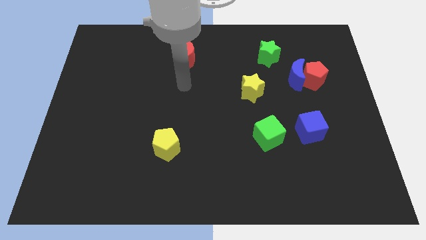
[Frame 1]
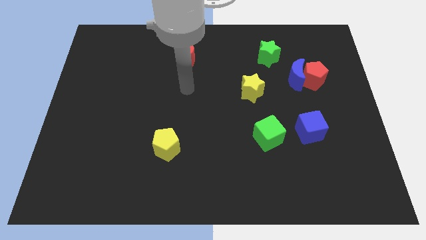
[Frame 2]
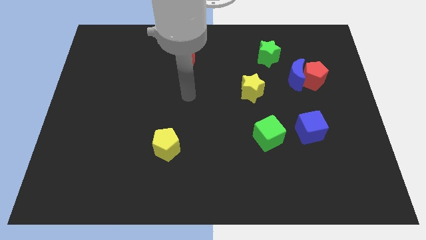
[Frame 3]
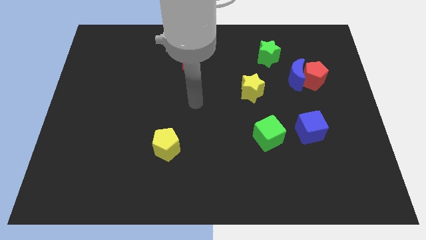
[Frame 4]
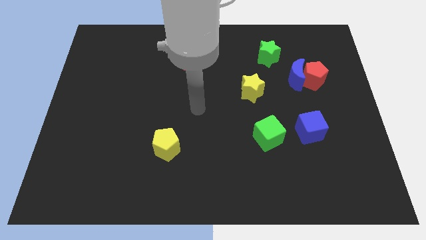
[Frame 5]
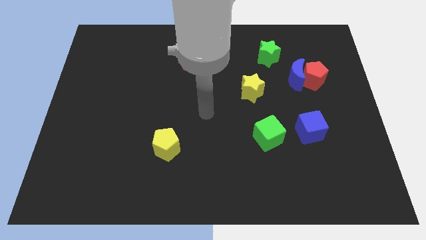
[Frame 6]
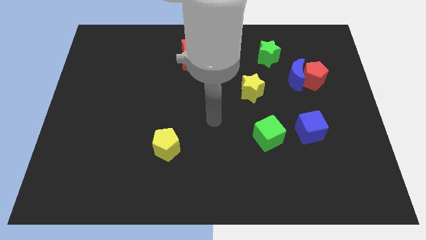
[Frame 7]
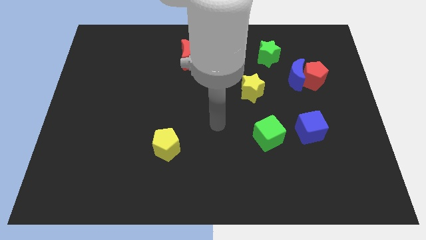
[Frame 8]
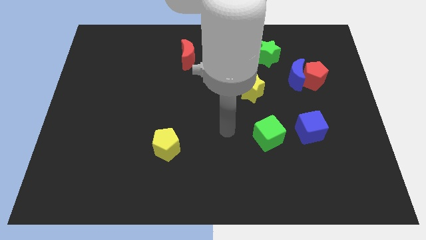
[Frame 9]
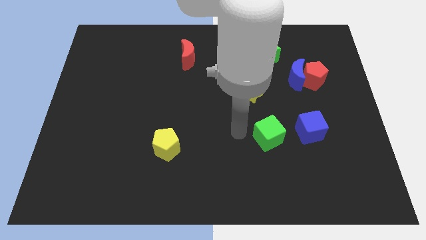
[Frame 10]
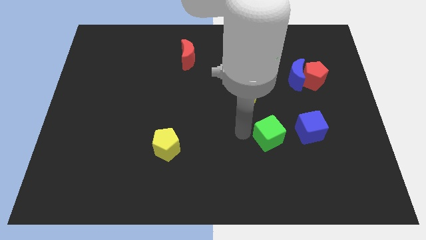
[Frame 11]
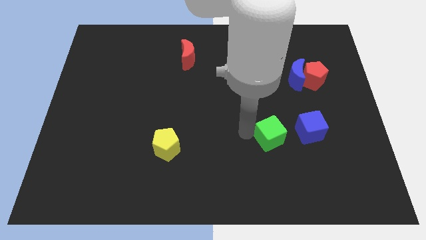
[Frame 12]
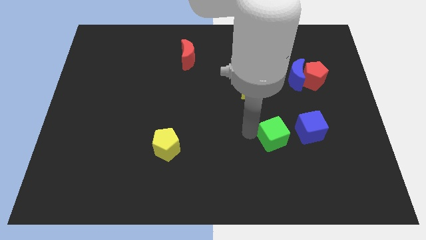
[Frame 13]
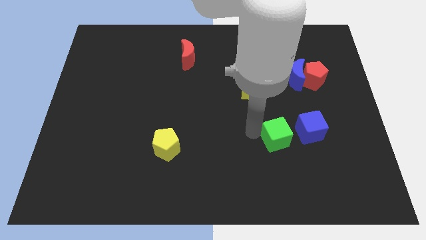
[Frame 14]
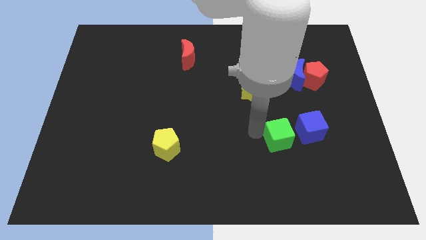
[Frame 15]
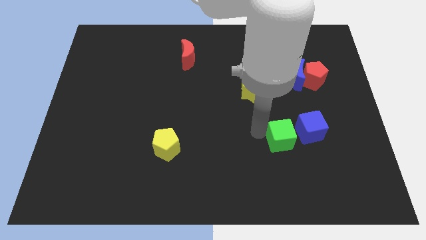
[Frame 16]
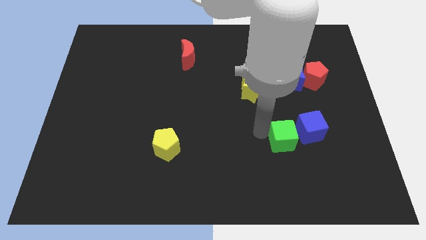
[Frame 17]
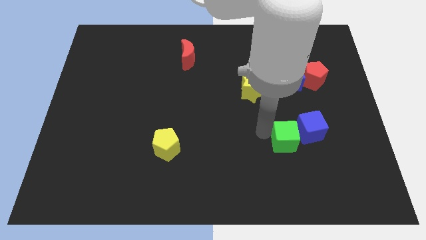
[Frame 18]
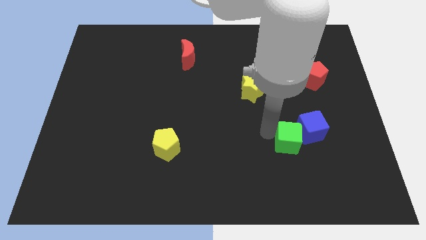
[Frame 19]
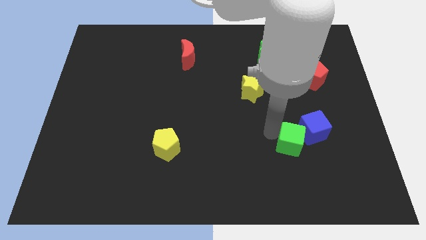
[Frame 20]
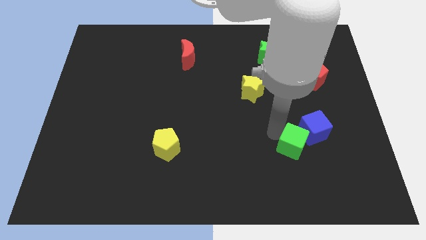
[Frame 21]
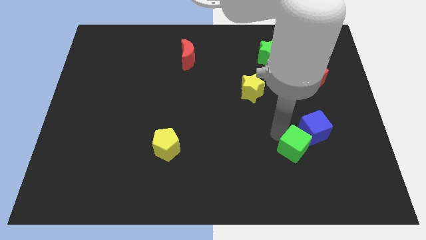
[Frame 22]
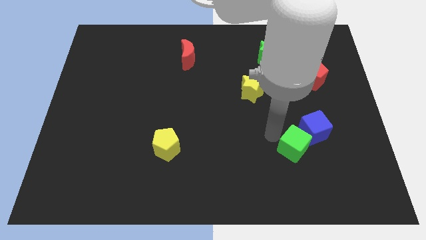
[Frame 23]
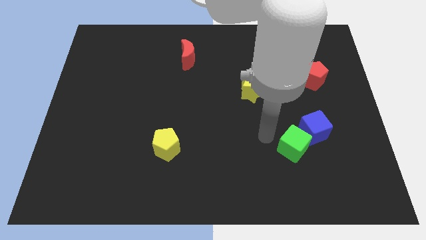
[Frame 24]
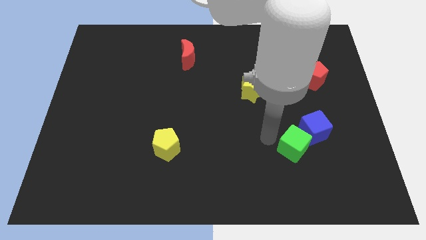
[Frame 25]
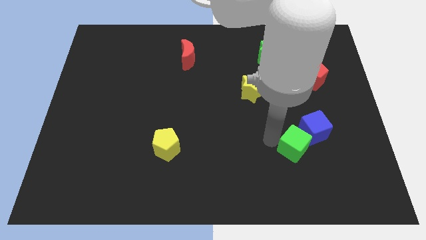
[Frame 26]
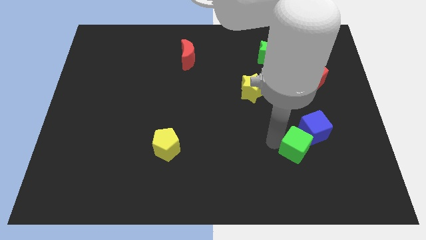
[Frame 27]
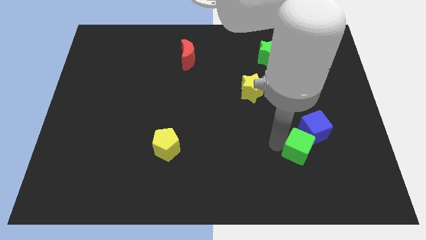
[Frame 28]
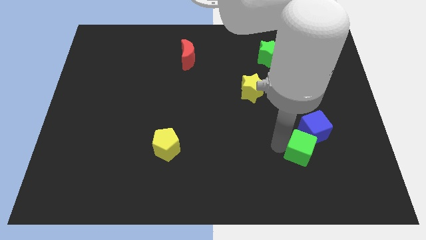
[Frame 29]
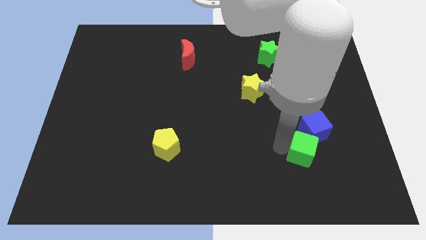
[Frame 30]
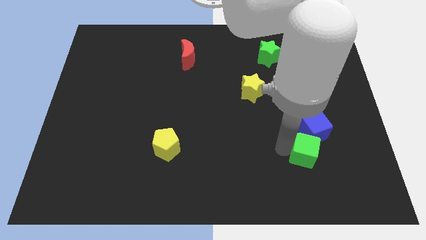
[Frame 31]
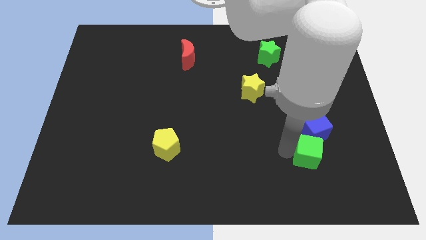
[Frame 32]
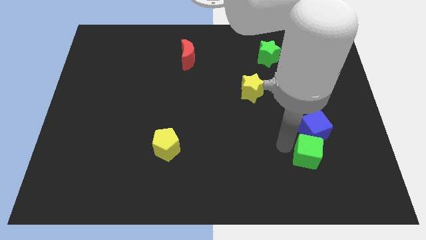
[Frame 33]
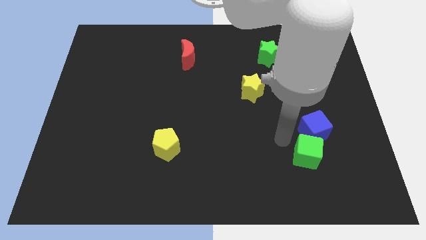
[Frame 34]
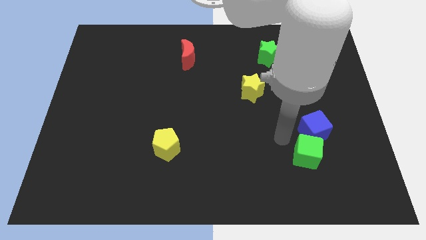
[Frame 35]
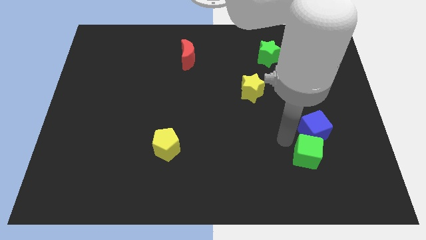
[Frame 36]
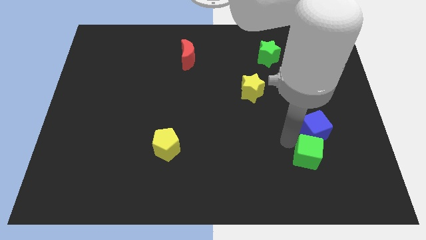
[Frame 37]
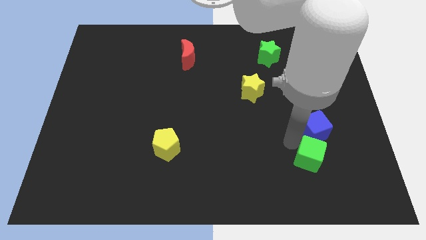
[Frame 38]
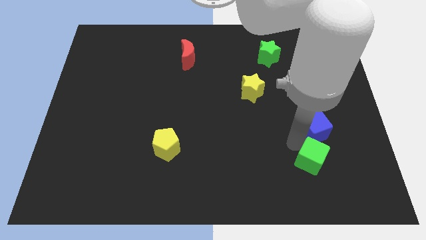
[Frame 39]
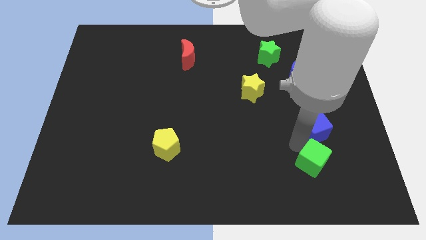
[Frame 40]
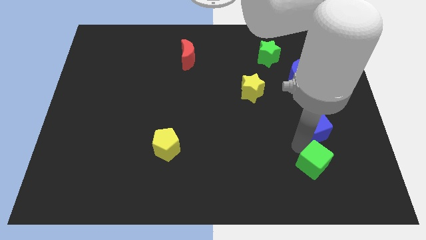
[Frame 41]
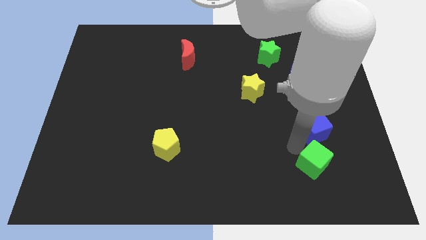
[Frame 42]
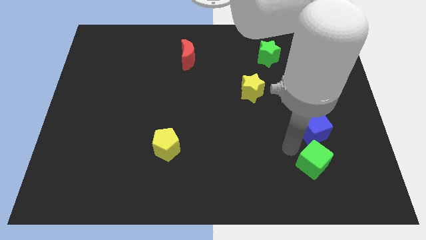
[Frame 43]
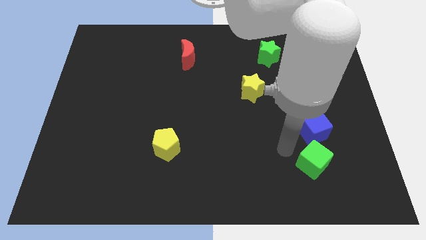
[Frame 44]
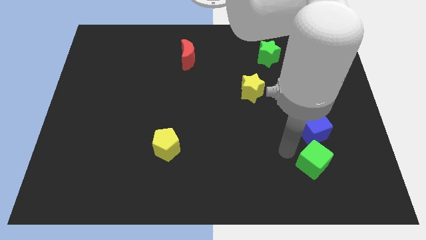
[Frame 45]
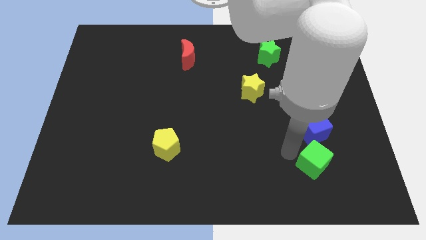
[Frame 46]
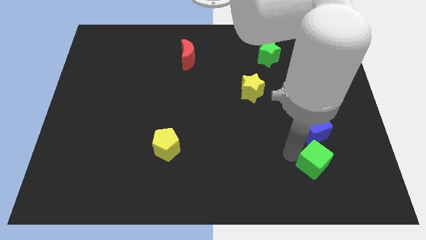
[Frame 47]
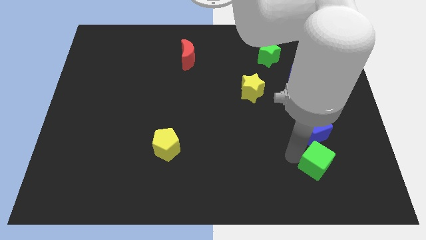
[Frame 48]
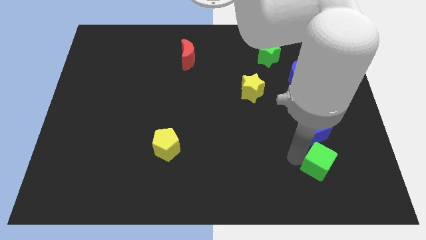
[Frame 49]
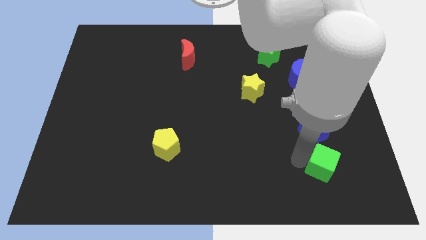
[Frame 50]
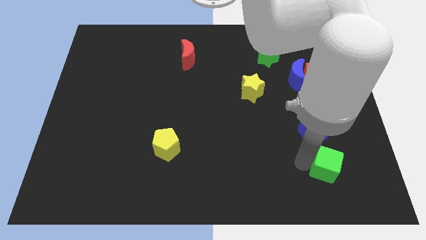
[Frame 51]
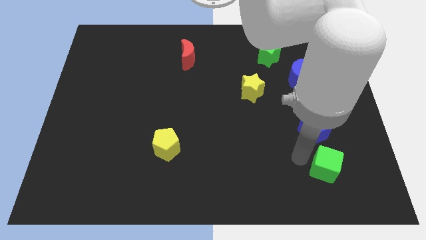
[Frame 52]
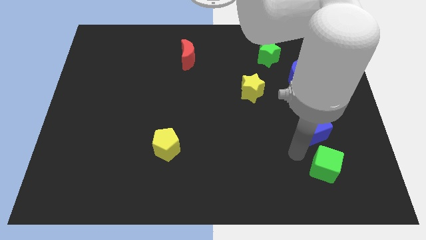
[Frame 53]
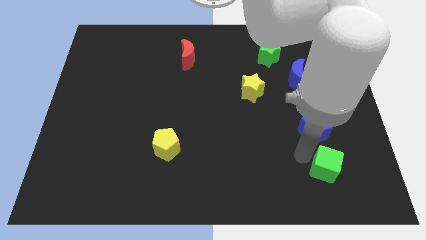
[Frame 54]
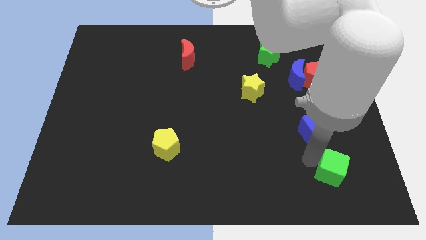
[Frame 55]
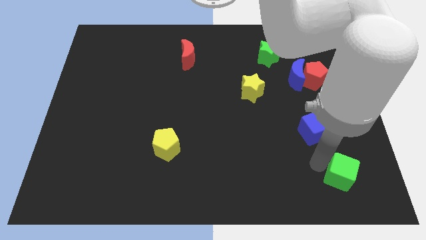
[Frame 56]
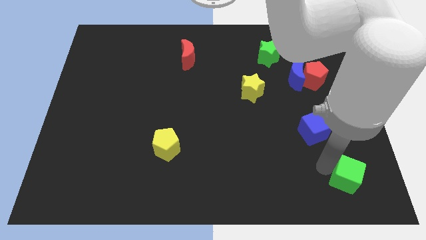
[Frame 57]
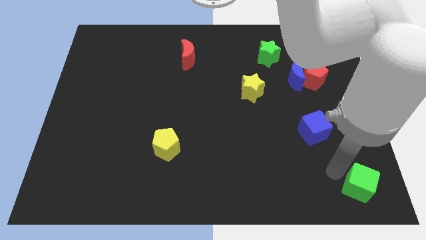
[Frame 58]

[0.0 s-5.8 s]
push the green cube to the lower right corner

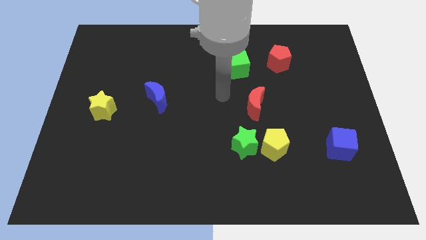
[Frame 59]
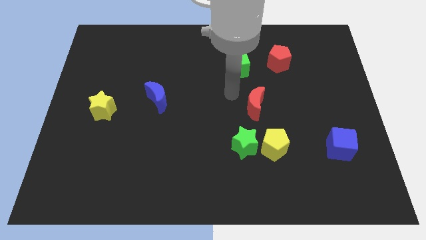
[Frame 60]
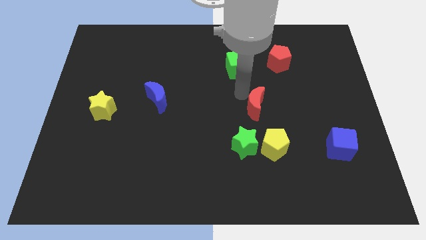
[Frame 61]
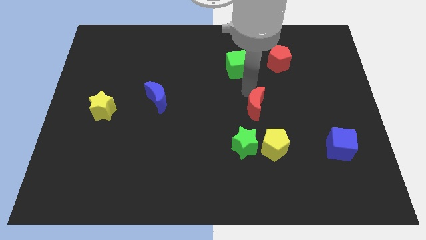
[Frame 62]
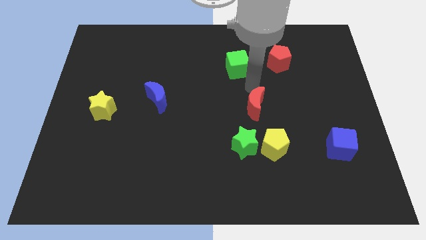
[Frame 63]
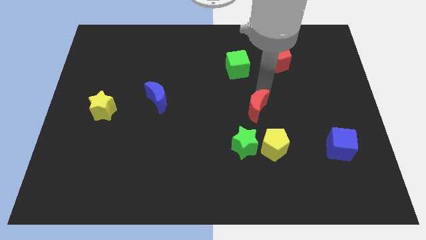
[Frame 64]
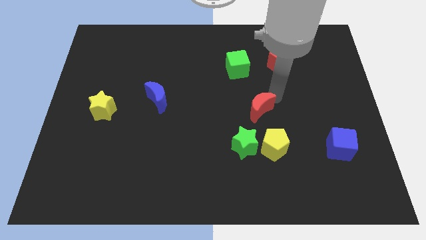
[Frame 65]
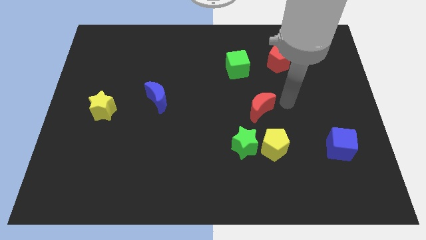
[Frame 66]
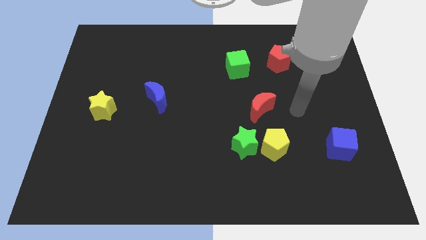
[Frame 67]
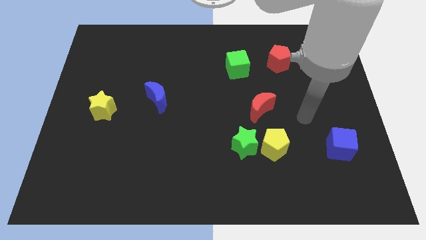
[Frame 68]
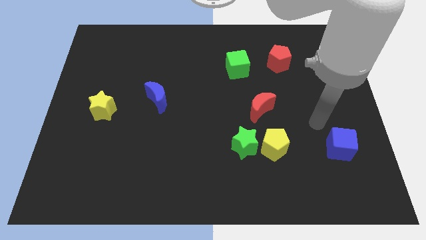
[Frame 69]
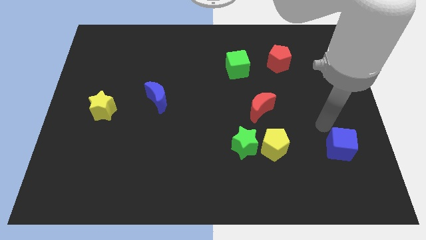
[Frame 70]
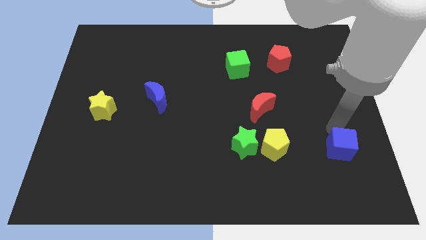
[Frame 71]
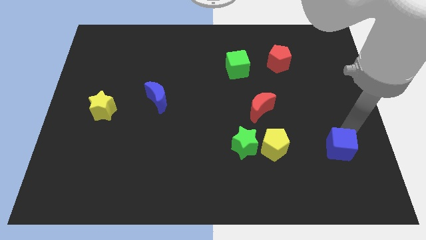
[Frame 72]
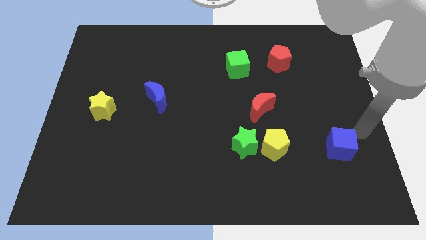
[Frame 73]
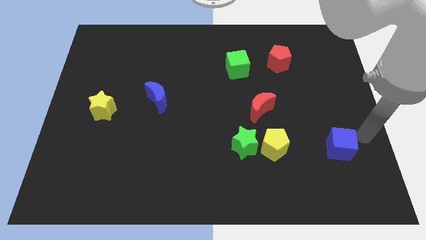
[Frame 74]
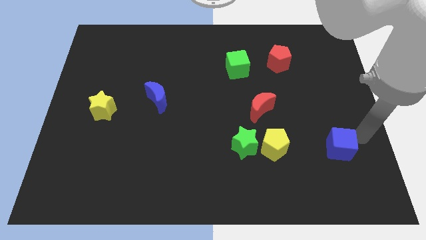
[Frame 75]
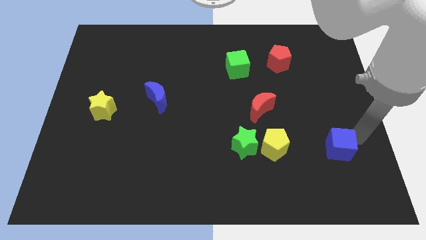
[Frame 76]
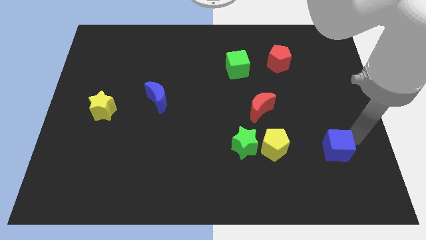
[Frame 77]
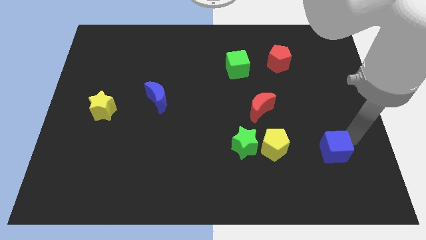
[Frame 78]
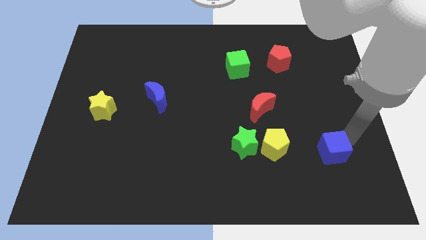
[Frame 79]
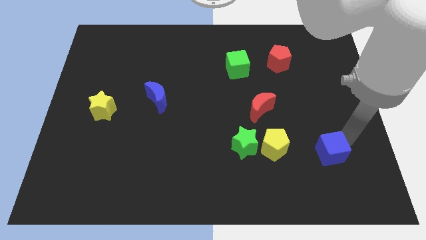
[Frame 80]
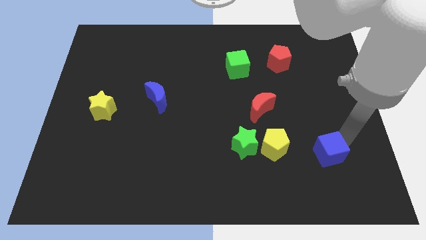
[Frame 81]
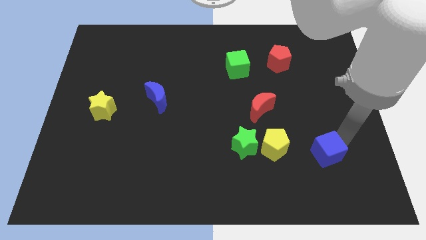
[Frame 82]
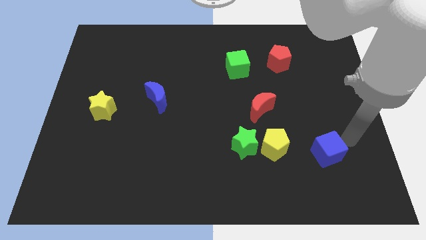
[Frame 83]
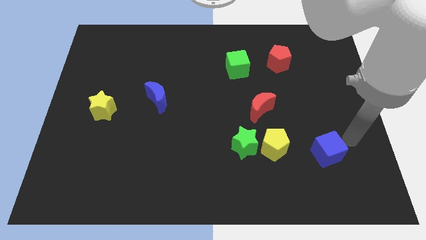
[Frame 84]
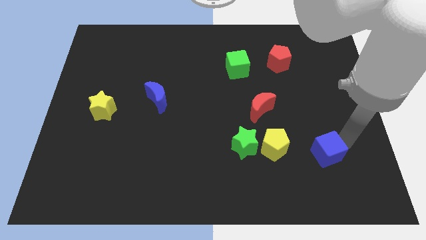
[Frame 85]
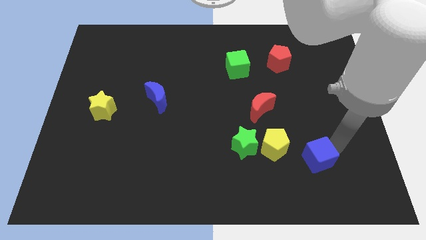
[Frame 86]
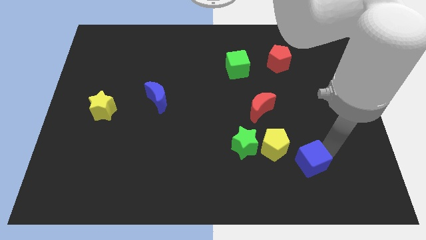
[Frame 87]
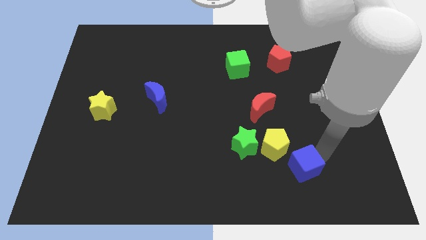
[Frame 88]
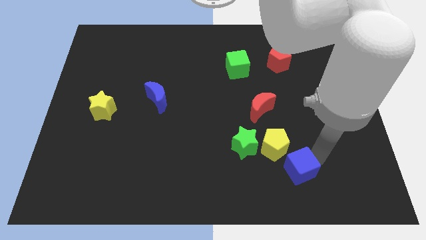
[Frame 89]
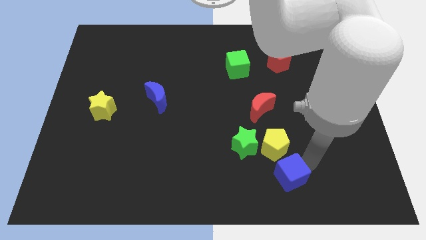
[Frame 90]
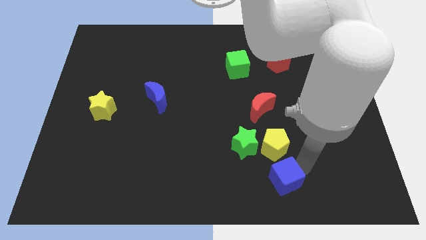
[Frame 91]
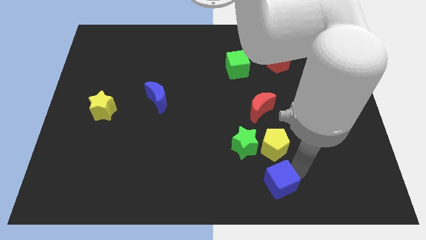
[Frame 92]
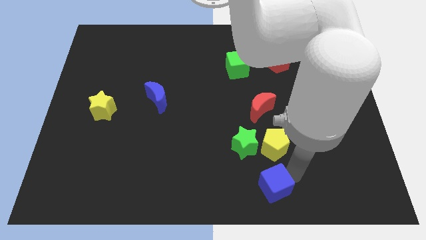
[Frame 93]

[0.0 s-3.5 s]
slide the blue cube to the bottom side
